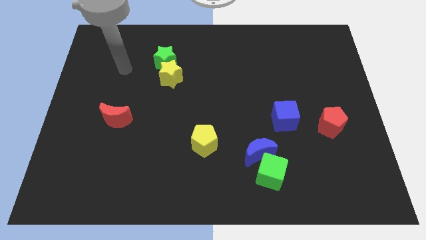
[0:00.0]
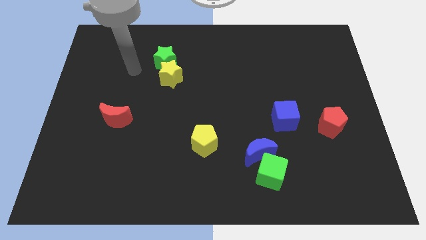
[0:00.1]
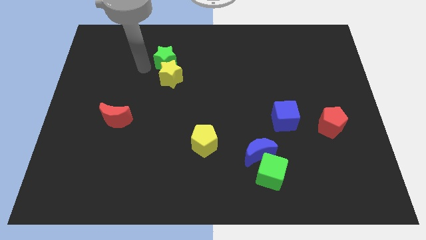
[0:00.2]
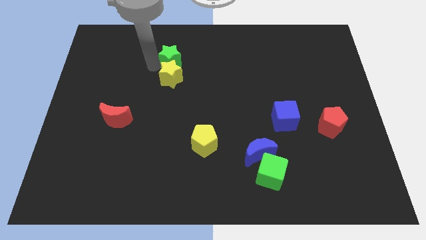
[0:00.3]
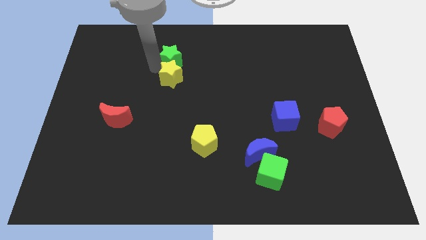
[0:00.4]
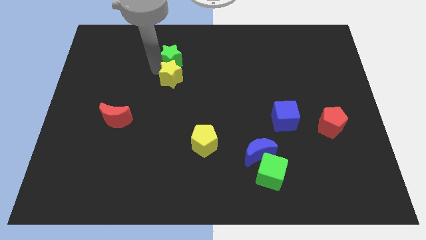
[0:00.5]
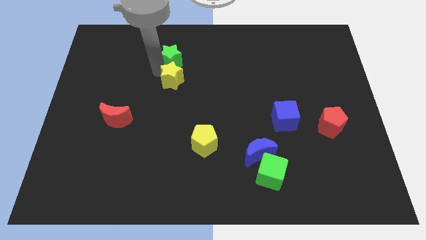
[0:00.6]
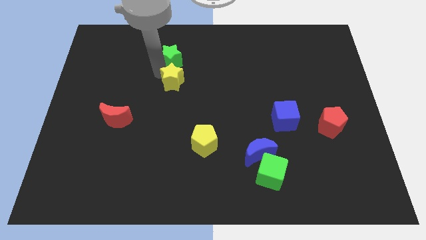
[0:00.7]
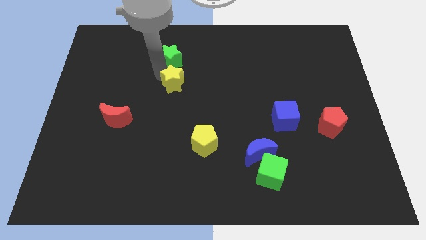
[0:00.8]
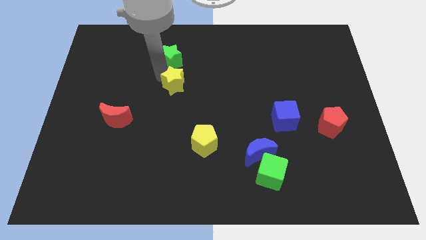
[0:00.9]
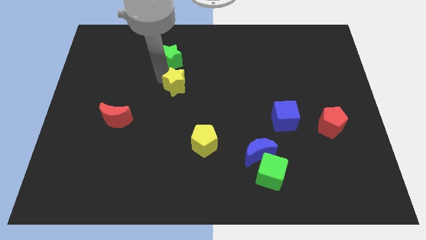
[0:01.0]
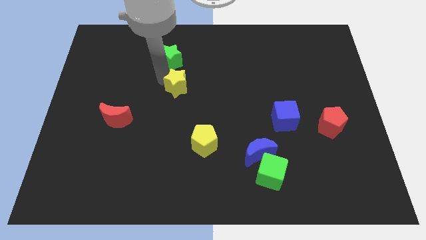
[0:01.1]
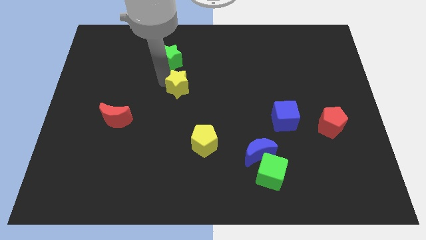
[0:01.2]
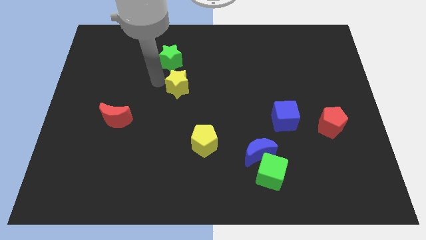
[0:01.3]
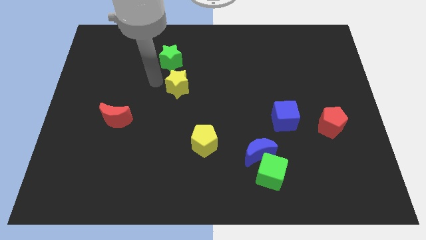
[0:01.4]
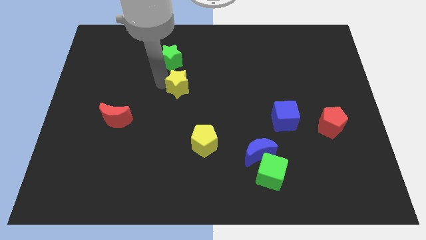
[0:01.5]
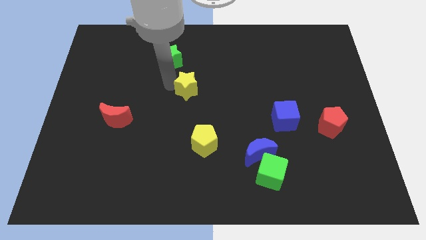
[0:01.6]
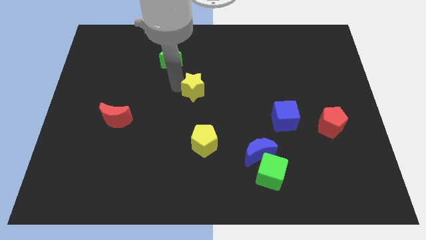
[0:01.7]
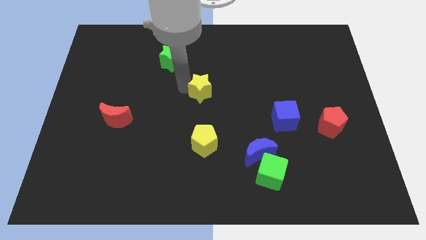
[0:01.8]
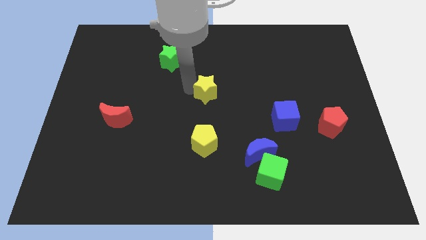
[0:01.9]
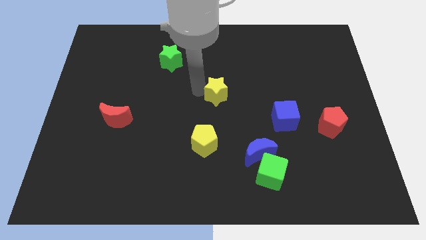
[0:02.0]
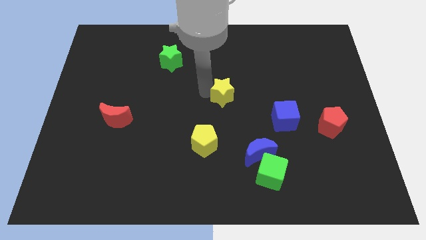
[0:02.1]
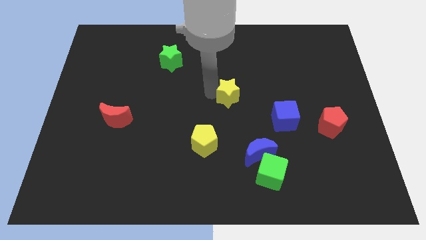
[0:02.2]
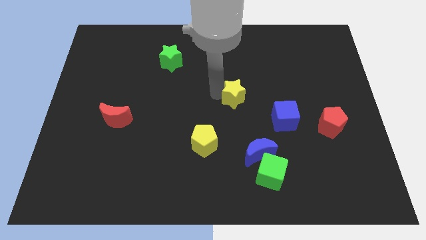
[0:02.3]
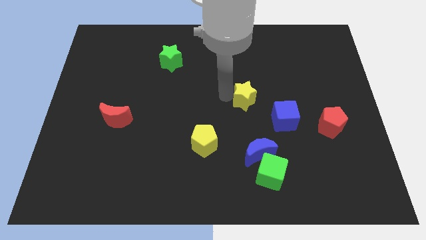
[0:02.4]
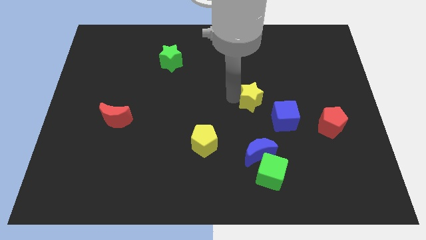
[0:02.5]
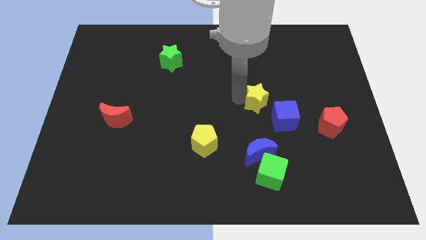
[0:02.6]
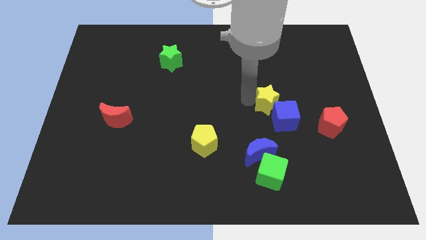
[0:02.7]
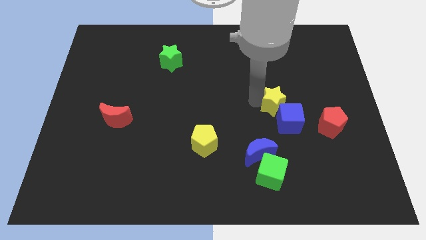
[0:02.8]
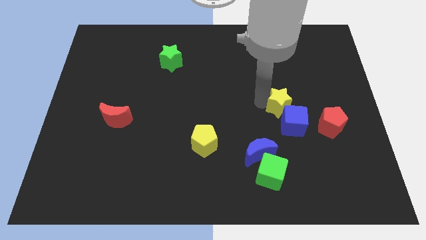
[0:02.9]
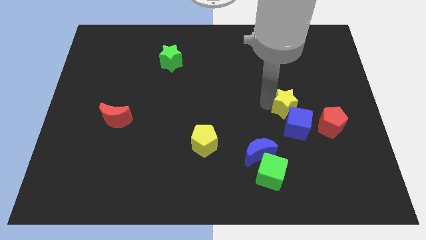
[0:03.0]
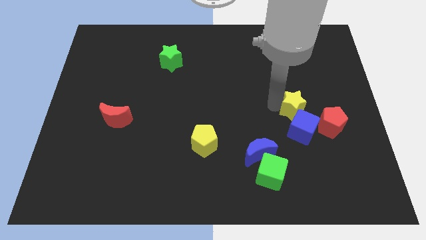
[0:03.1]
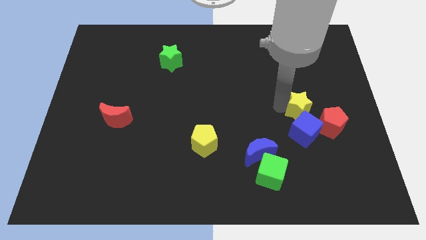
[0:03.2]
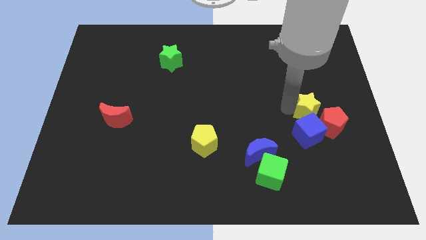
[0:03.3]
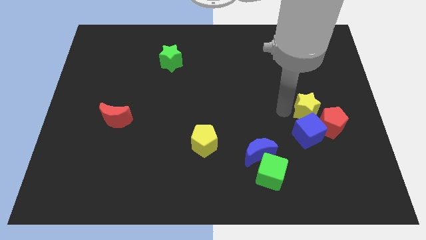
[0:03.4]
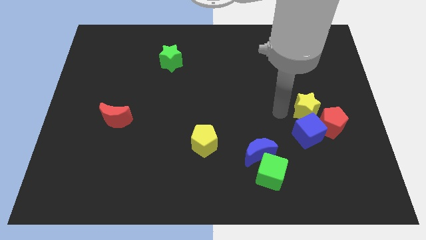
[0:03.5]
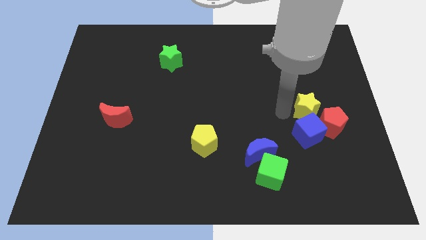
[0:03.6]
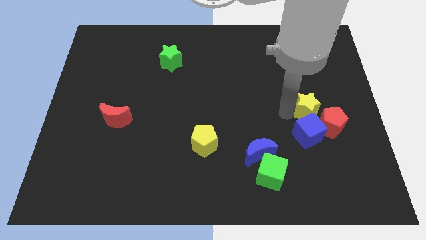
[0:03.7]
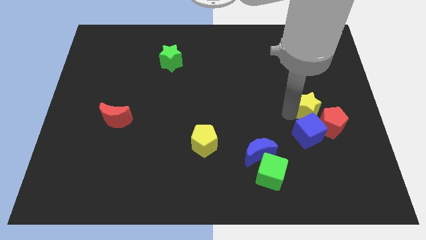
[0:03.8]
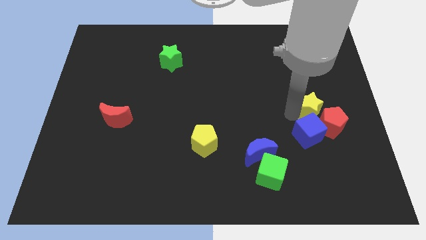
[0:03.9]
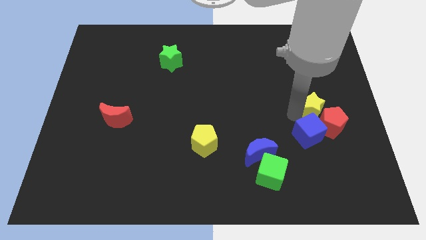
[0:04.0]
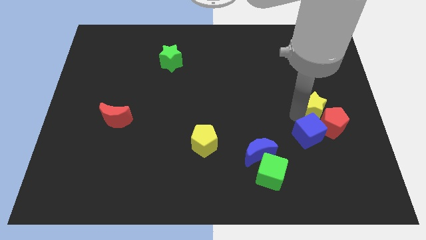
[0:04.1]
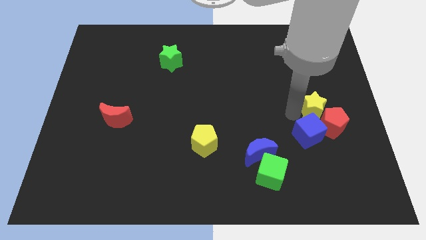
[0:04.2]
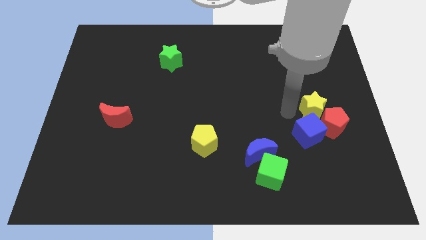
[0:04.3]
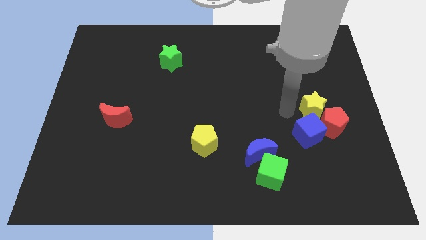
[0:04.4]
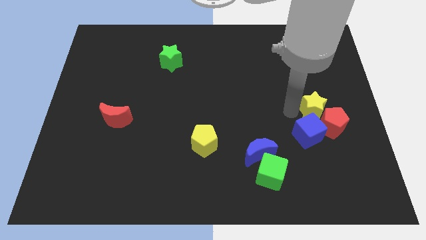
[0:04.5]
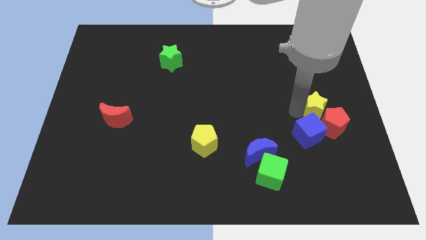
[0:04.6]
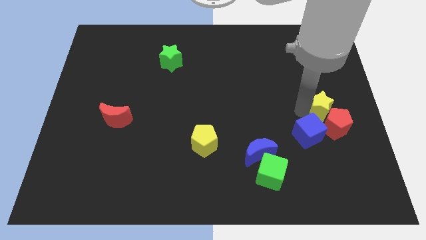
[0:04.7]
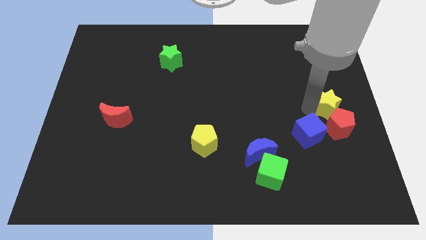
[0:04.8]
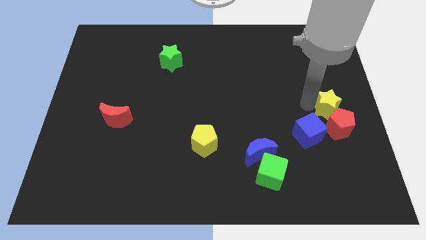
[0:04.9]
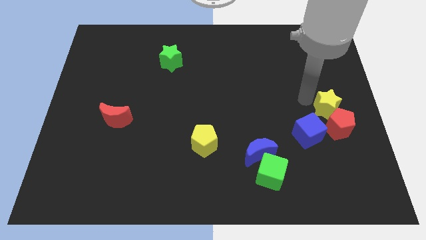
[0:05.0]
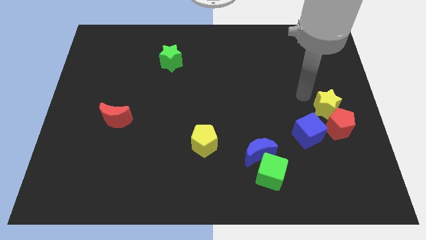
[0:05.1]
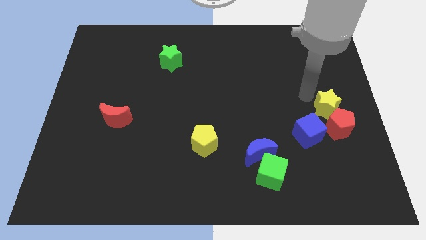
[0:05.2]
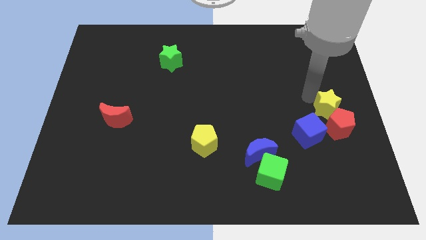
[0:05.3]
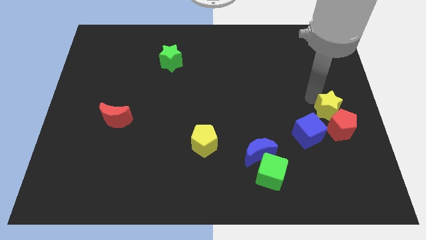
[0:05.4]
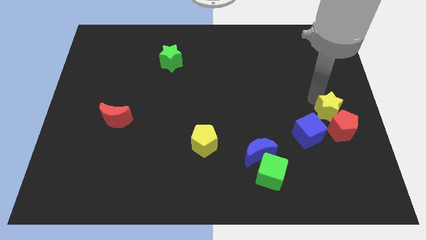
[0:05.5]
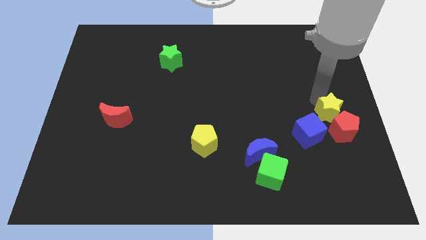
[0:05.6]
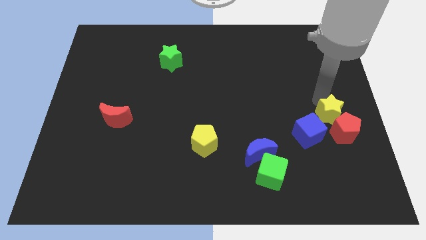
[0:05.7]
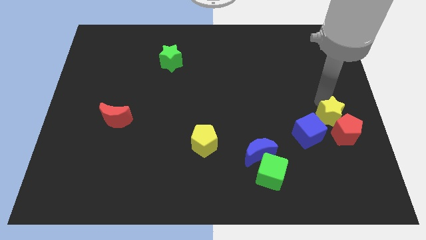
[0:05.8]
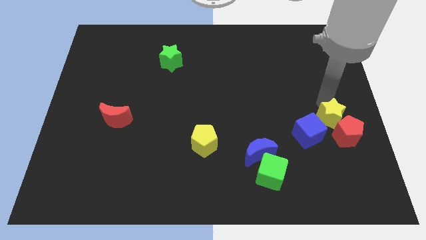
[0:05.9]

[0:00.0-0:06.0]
put the yellow star right of the blue cube

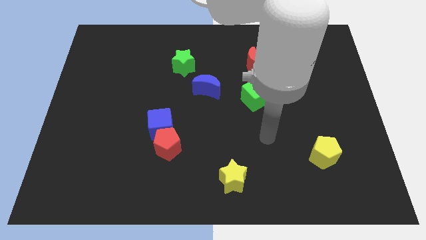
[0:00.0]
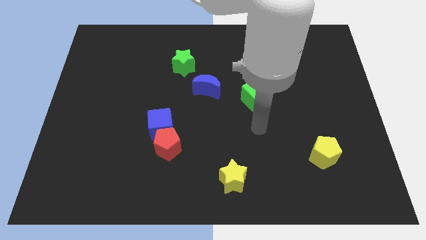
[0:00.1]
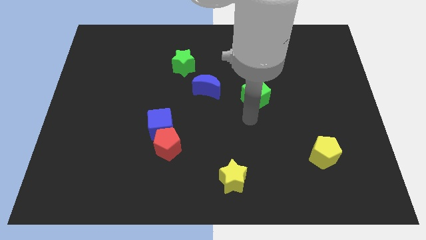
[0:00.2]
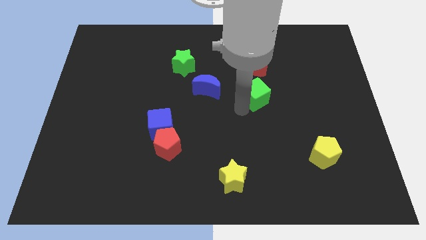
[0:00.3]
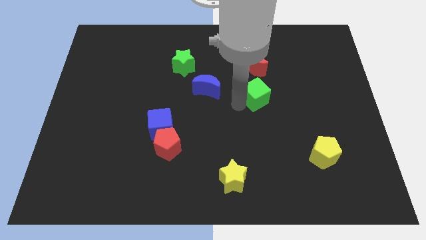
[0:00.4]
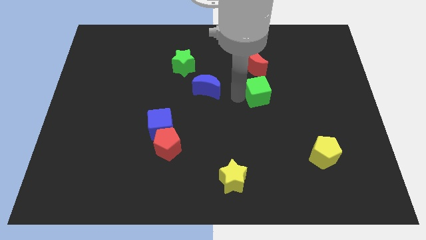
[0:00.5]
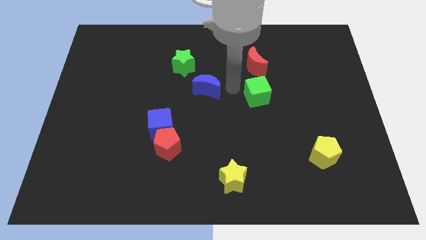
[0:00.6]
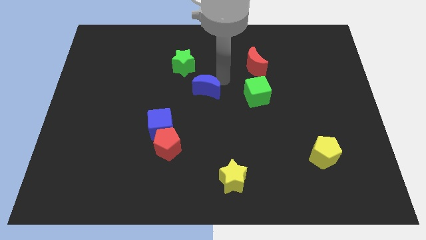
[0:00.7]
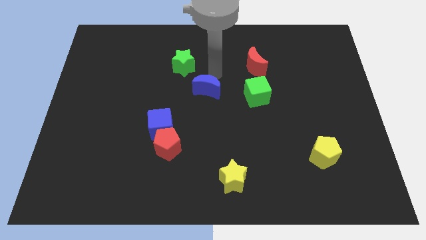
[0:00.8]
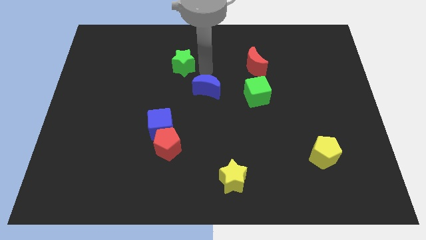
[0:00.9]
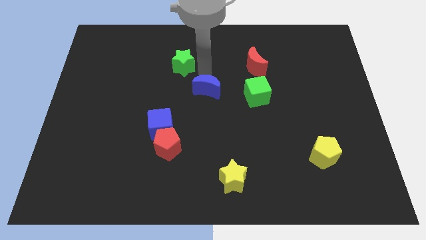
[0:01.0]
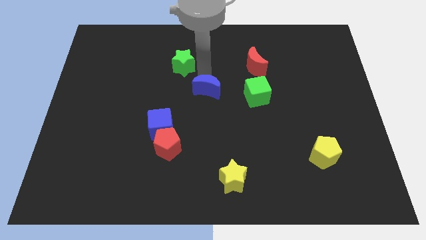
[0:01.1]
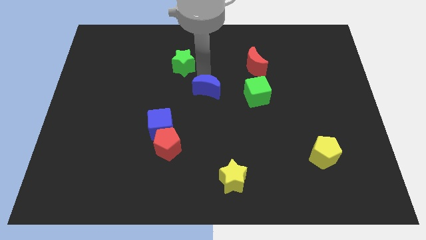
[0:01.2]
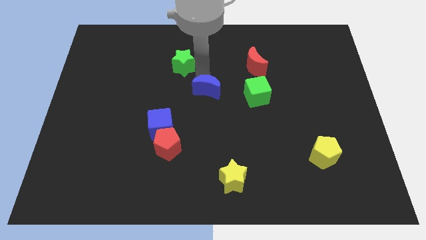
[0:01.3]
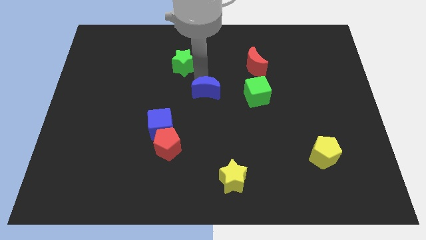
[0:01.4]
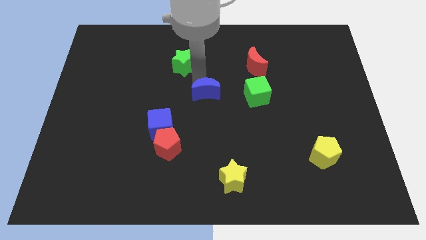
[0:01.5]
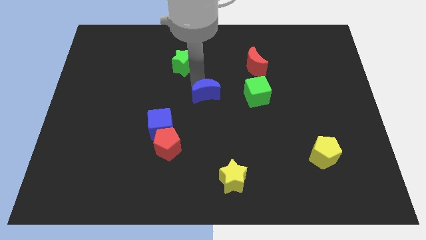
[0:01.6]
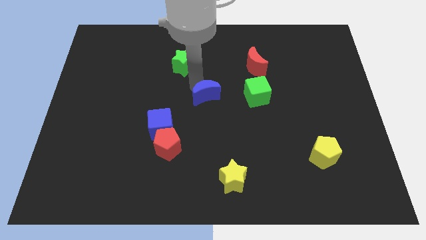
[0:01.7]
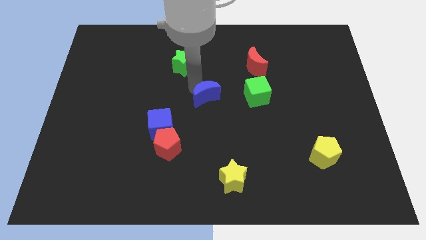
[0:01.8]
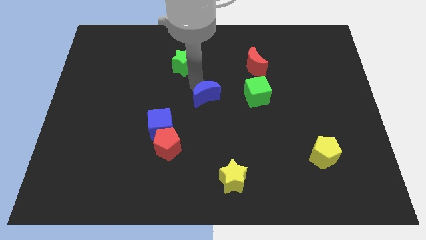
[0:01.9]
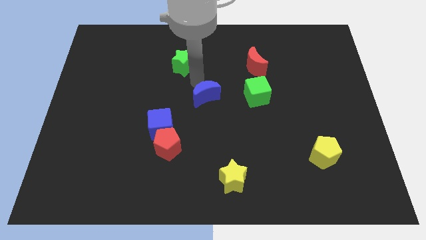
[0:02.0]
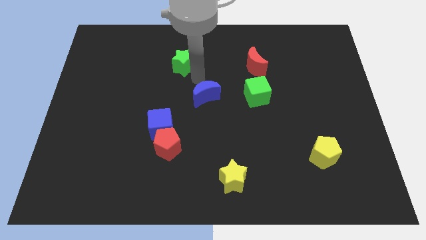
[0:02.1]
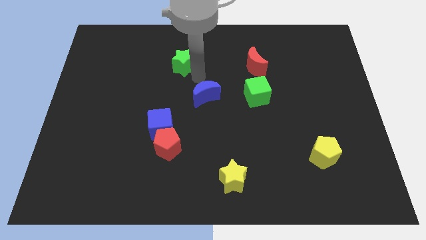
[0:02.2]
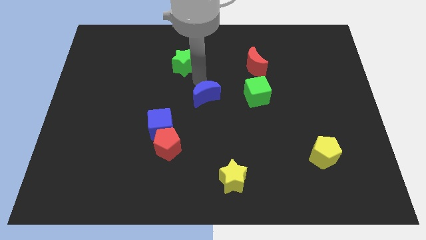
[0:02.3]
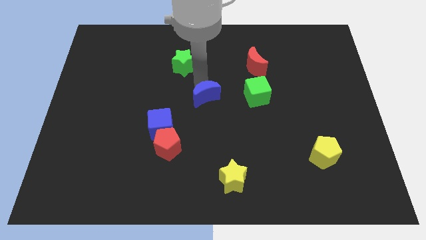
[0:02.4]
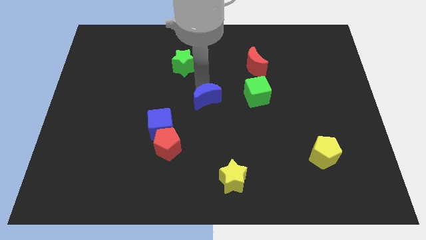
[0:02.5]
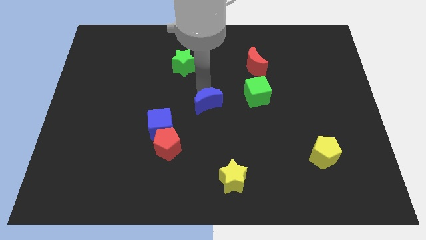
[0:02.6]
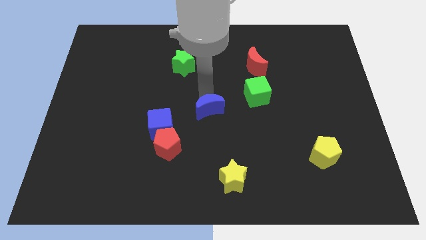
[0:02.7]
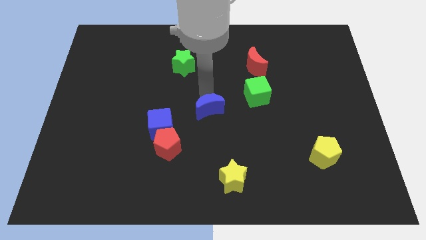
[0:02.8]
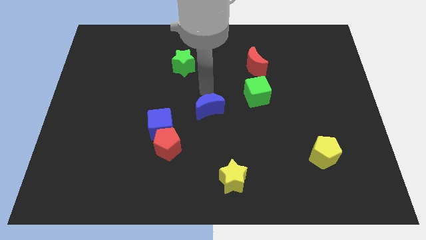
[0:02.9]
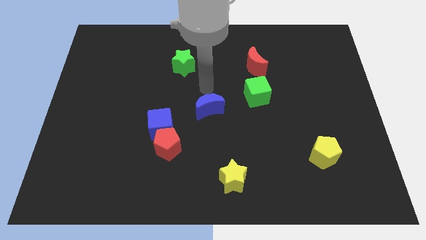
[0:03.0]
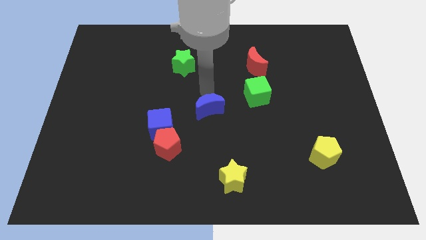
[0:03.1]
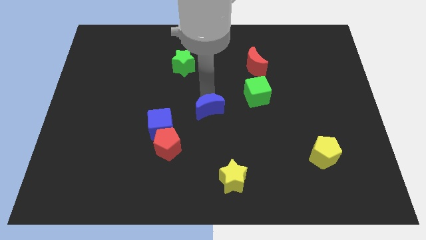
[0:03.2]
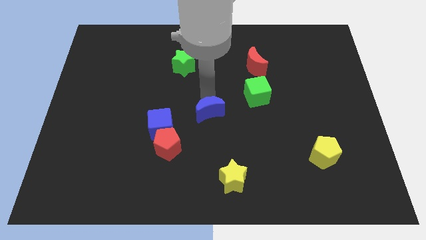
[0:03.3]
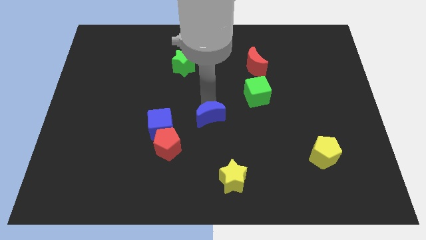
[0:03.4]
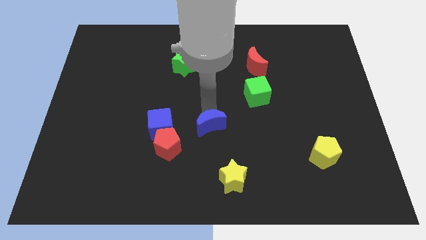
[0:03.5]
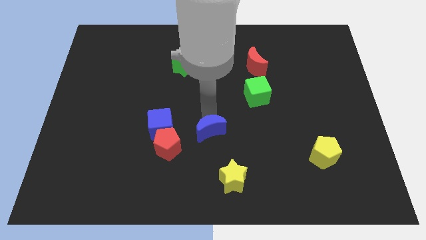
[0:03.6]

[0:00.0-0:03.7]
move the blue moon right of the red pentagon
